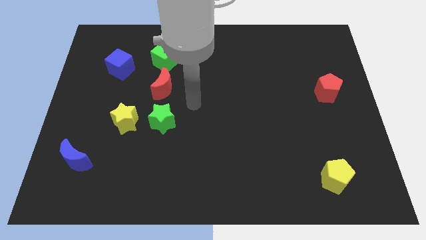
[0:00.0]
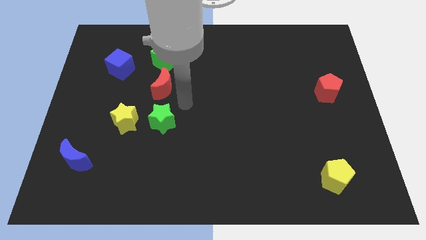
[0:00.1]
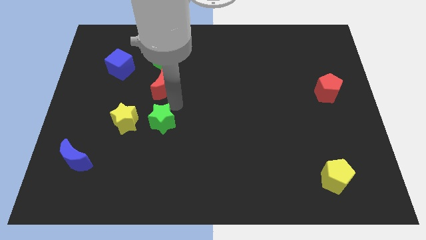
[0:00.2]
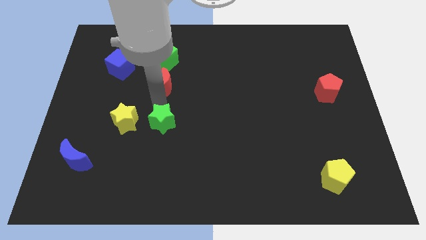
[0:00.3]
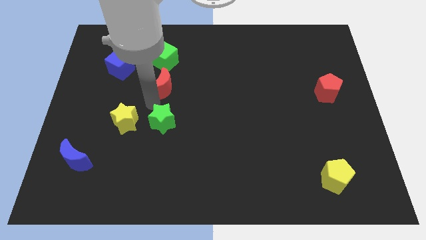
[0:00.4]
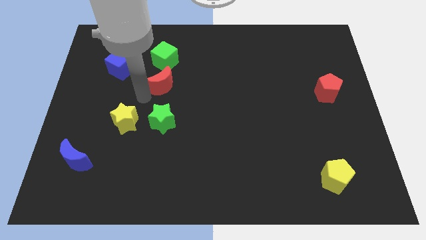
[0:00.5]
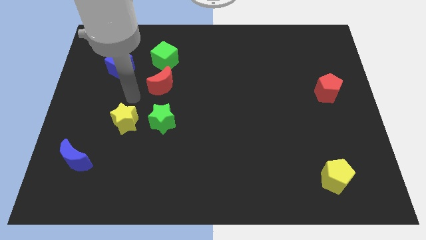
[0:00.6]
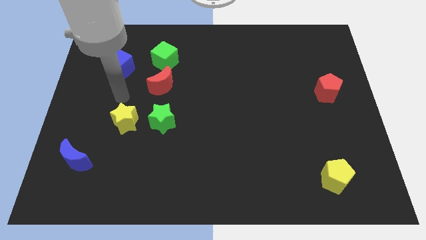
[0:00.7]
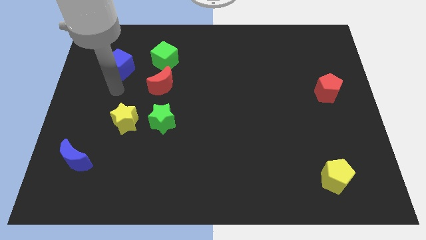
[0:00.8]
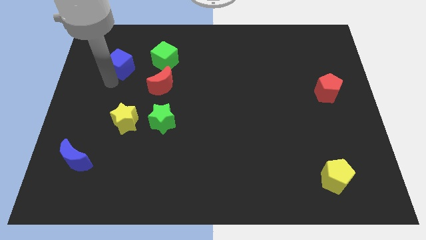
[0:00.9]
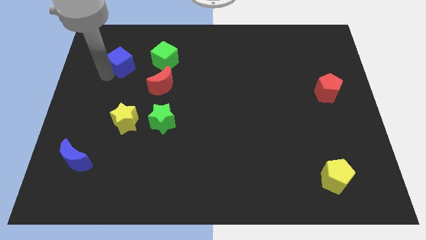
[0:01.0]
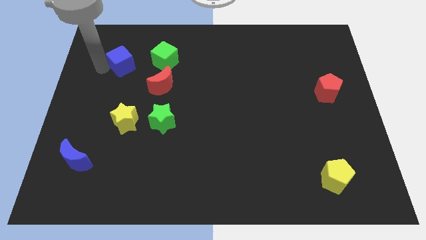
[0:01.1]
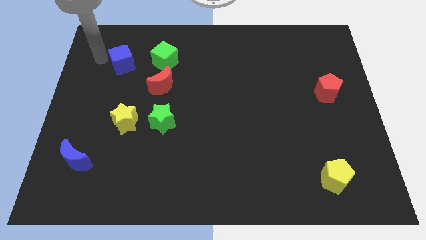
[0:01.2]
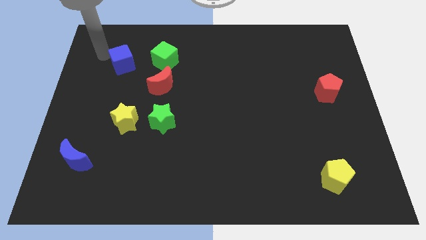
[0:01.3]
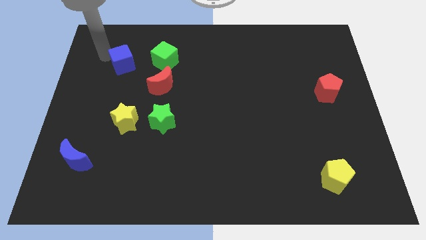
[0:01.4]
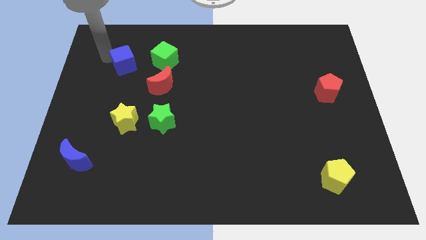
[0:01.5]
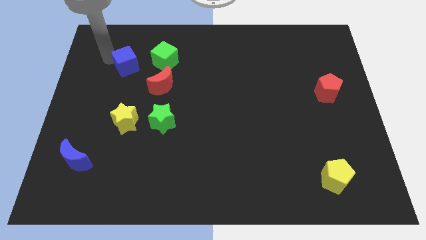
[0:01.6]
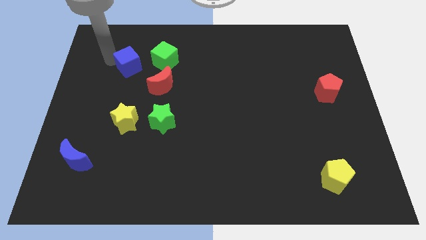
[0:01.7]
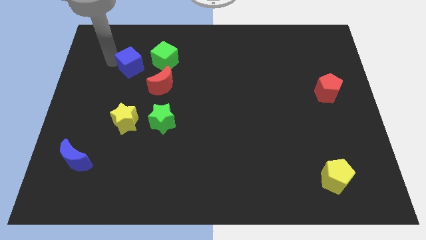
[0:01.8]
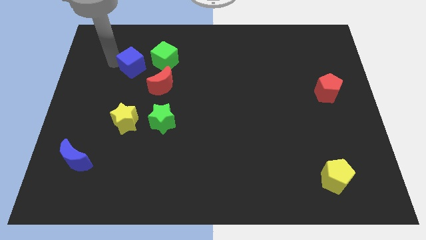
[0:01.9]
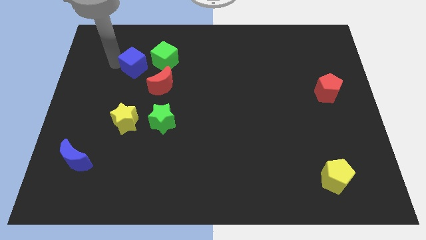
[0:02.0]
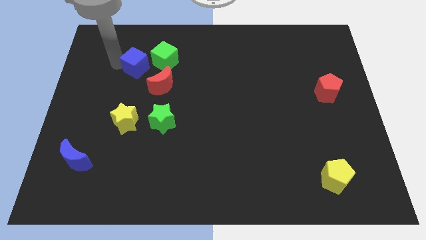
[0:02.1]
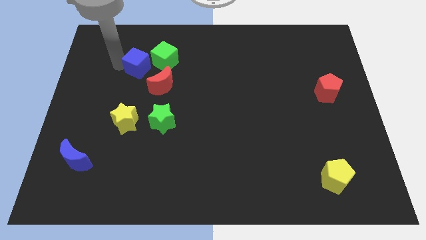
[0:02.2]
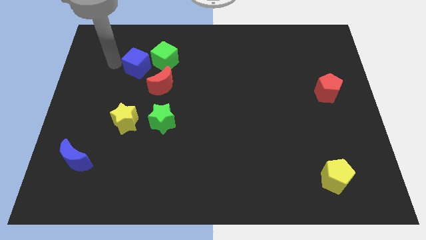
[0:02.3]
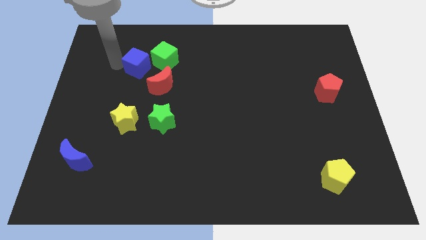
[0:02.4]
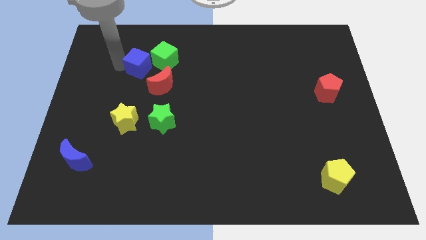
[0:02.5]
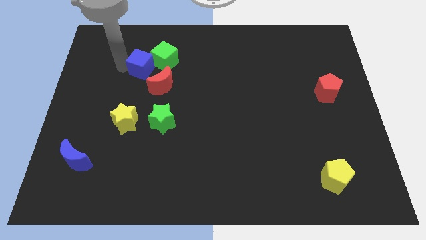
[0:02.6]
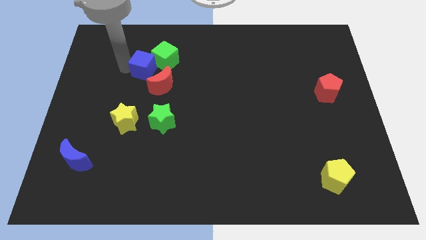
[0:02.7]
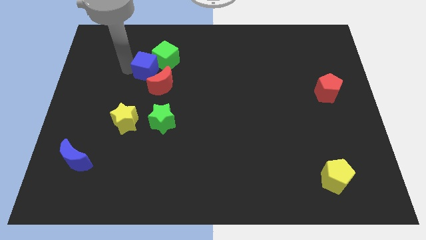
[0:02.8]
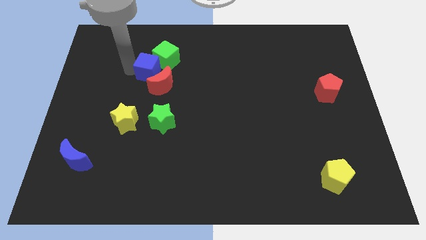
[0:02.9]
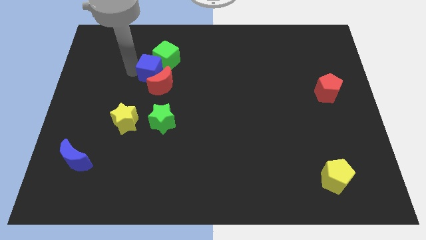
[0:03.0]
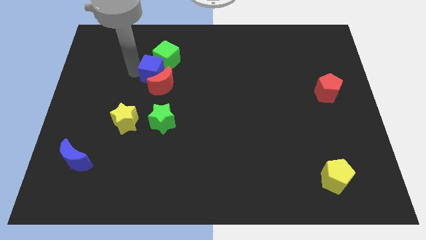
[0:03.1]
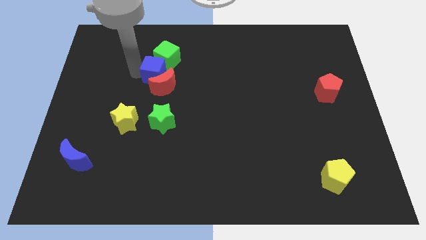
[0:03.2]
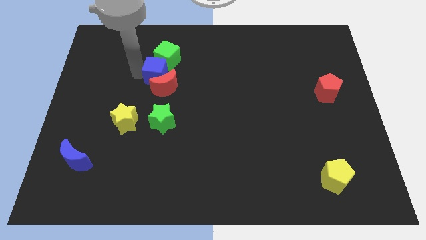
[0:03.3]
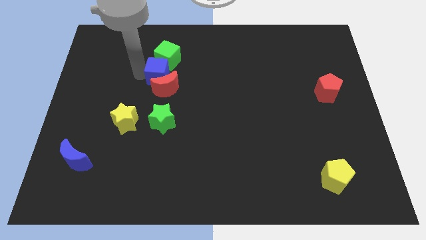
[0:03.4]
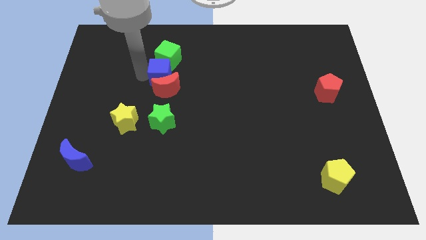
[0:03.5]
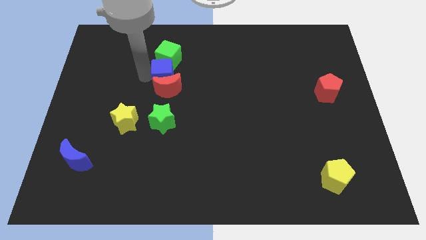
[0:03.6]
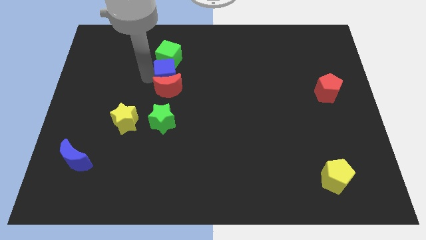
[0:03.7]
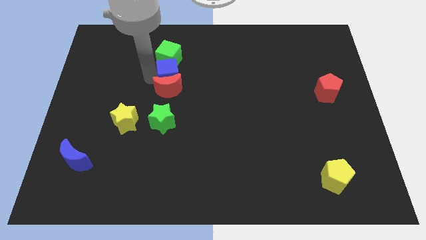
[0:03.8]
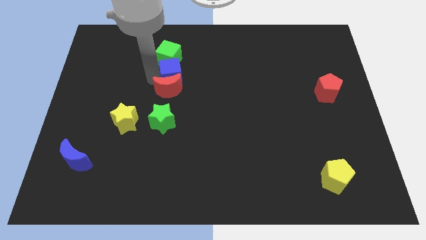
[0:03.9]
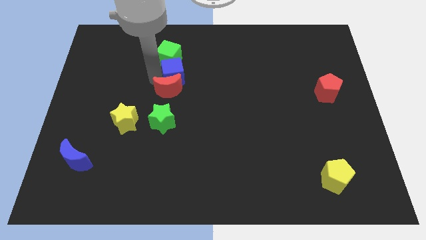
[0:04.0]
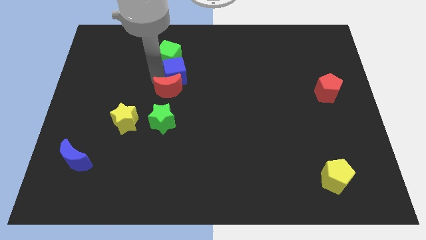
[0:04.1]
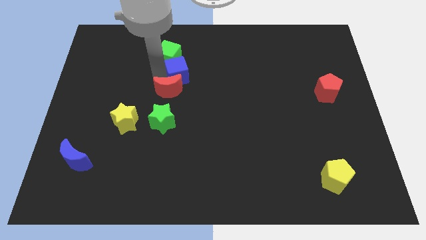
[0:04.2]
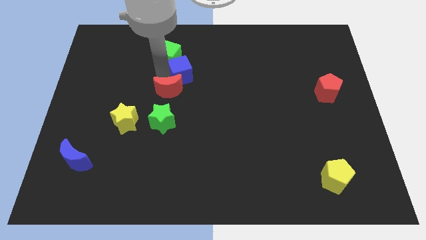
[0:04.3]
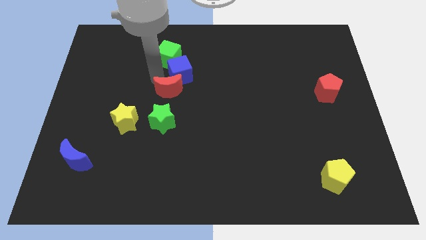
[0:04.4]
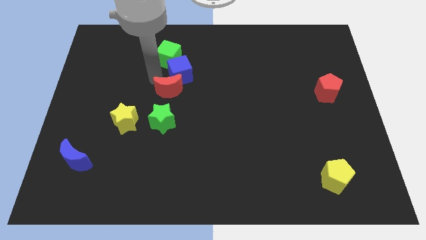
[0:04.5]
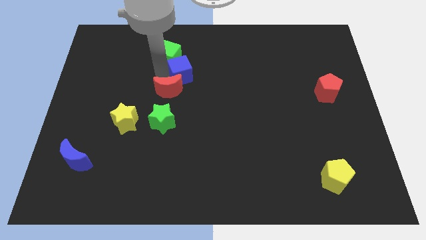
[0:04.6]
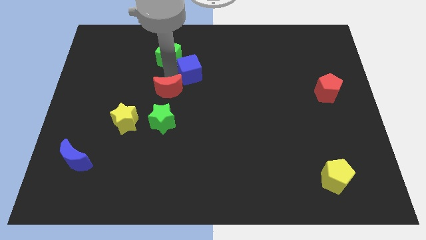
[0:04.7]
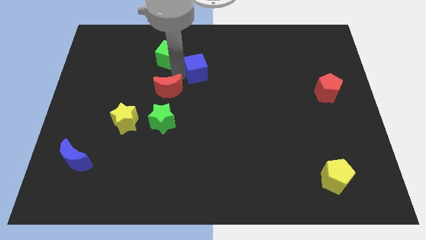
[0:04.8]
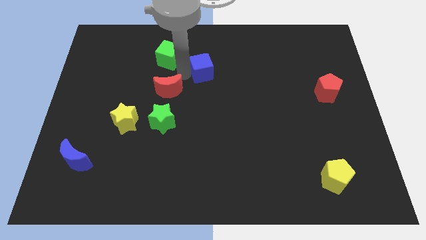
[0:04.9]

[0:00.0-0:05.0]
move the blue cube to the right

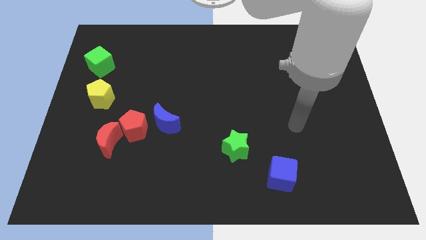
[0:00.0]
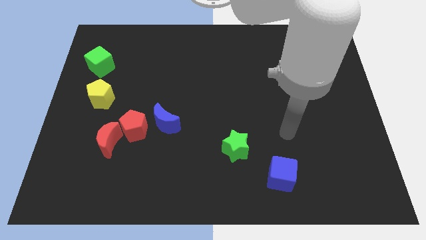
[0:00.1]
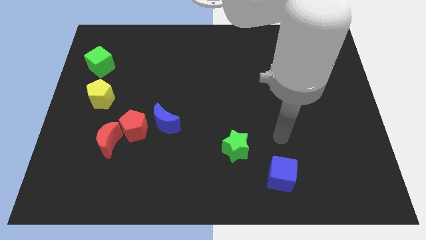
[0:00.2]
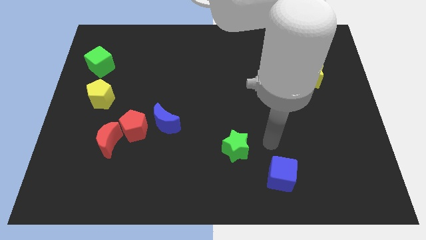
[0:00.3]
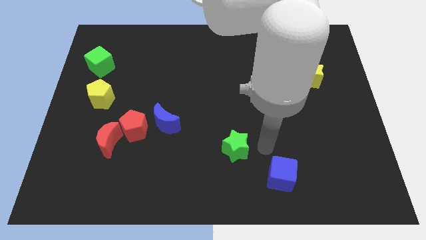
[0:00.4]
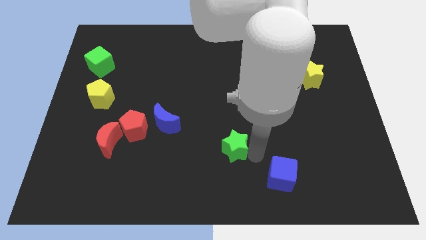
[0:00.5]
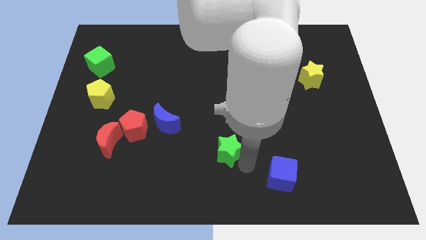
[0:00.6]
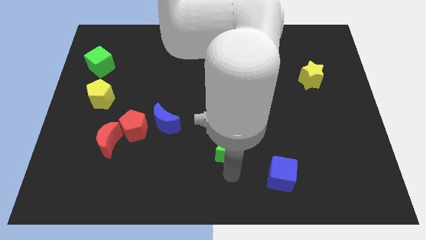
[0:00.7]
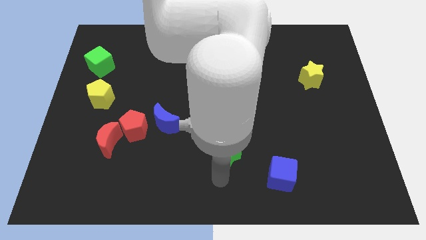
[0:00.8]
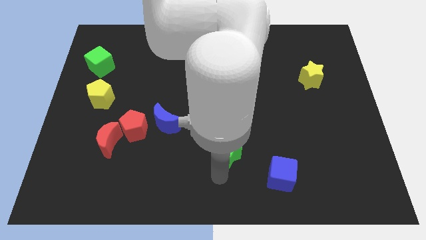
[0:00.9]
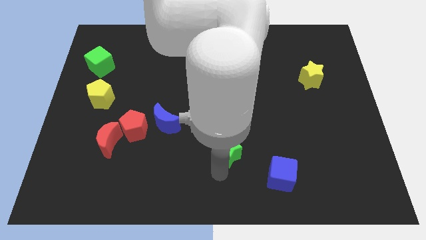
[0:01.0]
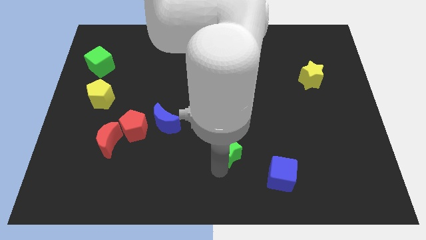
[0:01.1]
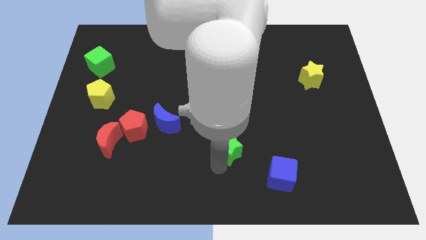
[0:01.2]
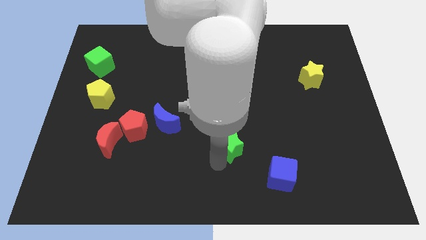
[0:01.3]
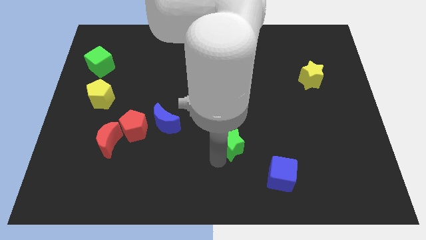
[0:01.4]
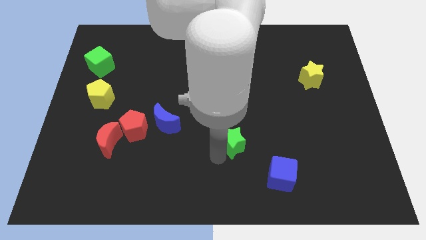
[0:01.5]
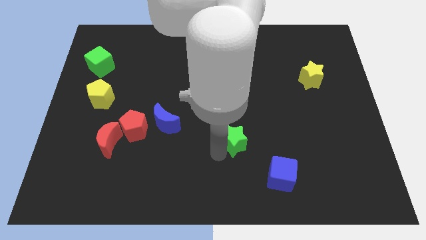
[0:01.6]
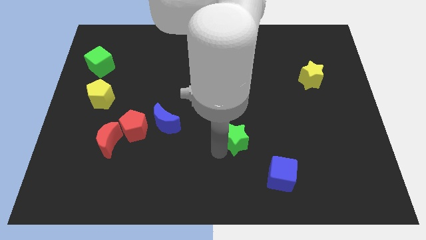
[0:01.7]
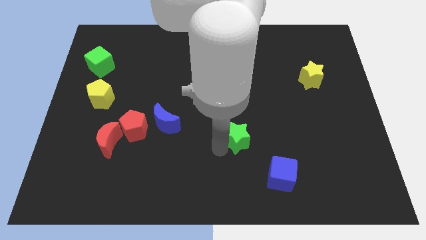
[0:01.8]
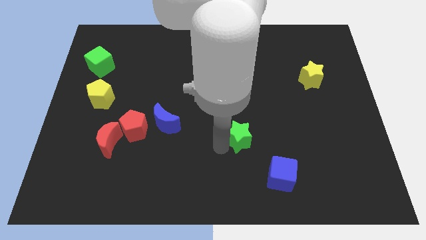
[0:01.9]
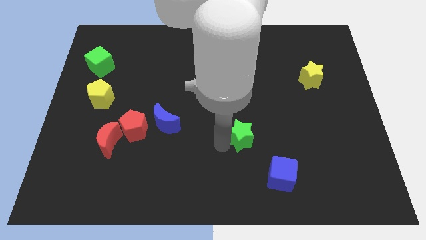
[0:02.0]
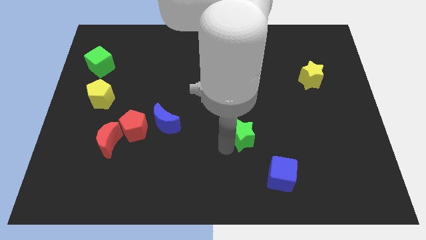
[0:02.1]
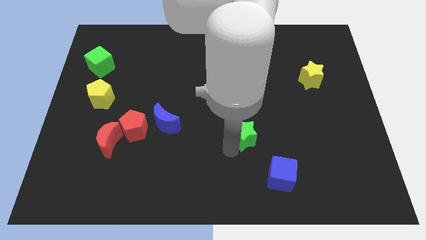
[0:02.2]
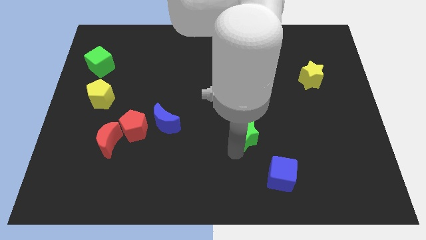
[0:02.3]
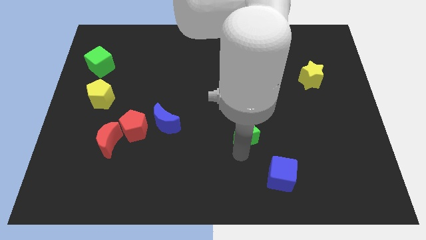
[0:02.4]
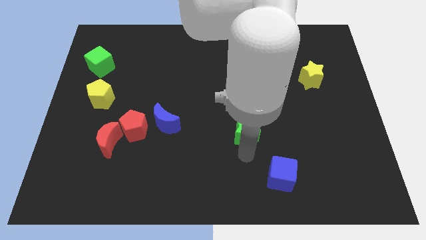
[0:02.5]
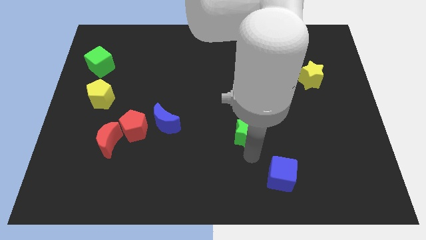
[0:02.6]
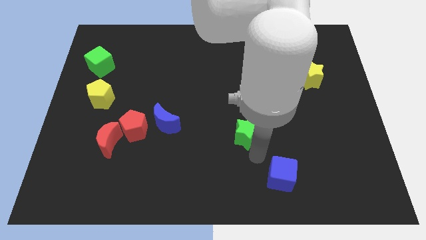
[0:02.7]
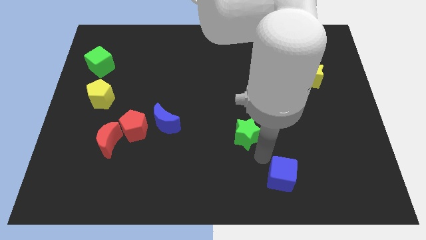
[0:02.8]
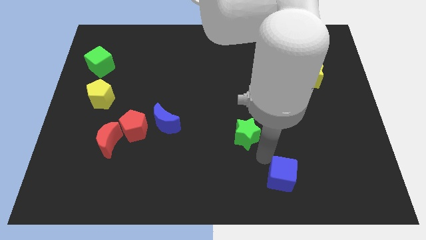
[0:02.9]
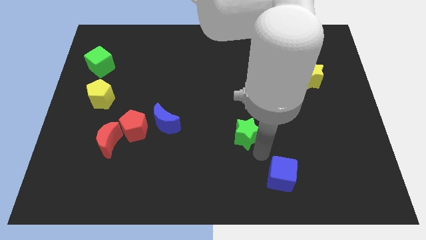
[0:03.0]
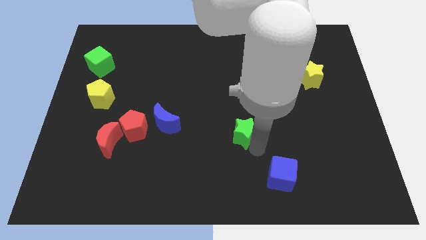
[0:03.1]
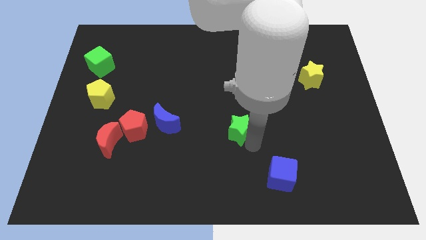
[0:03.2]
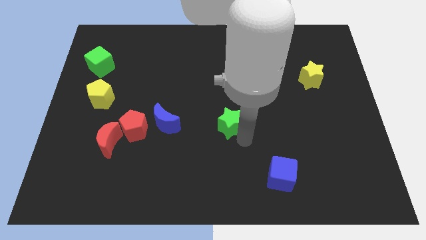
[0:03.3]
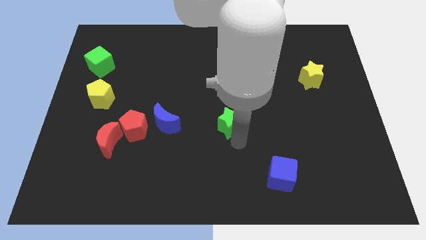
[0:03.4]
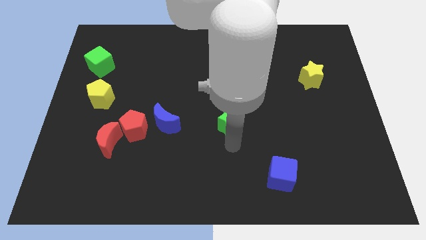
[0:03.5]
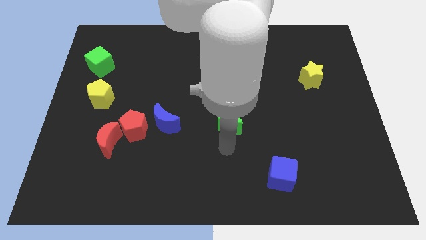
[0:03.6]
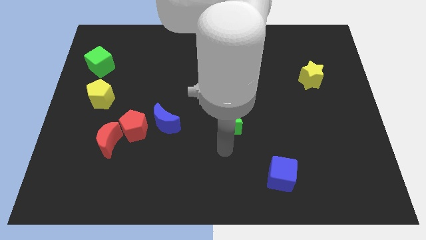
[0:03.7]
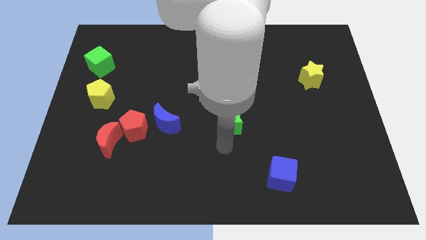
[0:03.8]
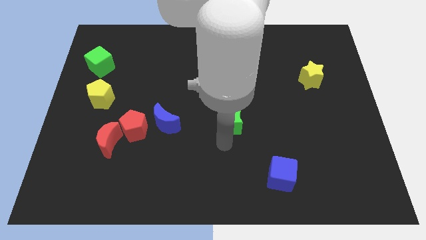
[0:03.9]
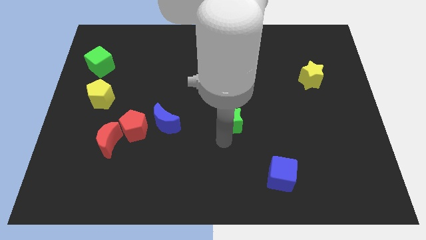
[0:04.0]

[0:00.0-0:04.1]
move the green star slightly up
